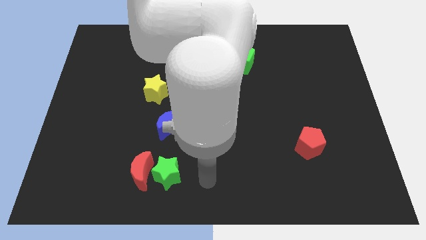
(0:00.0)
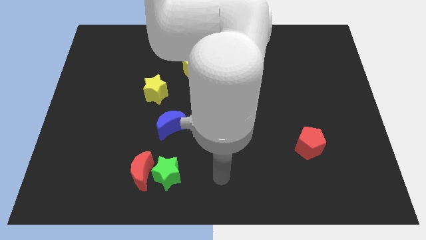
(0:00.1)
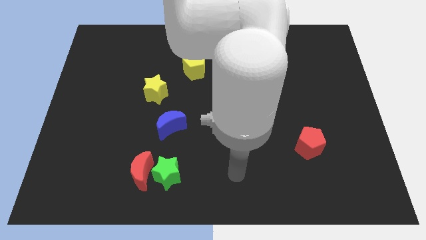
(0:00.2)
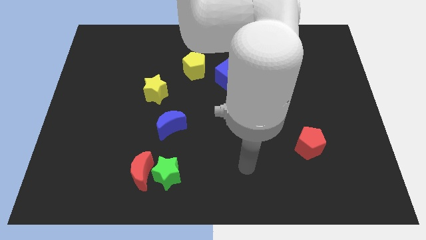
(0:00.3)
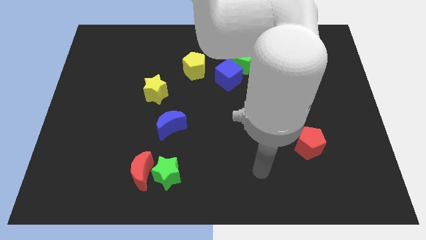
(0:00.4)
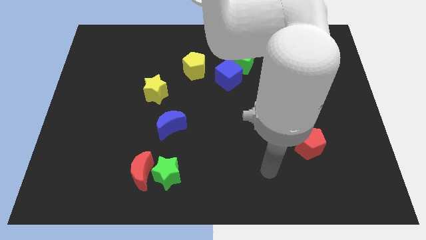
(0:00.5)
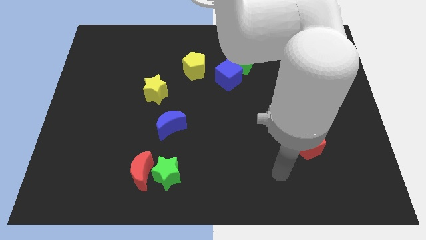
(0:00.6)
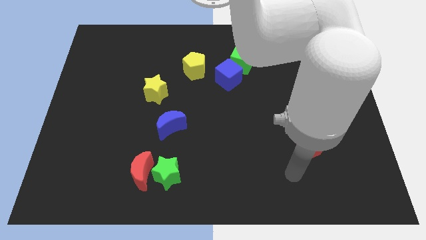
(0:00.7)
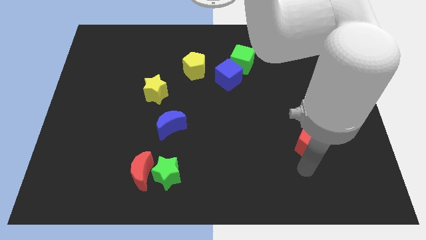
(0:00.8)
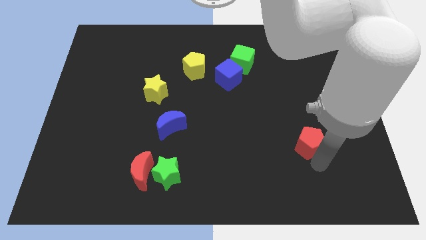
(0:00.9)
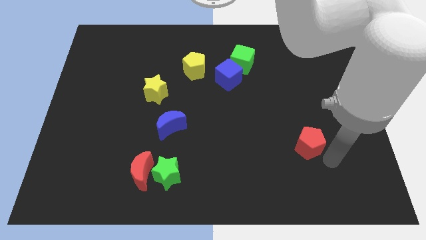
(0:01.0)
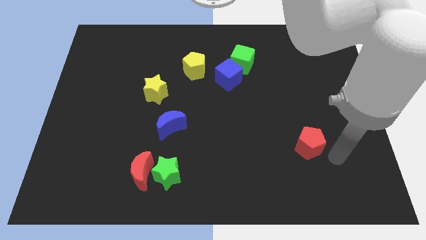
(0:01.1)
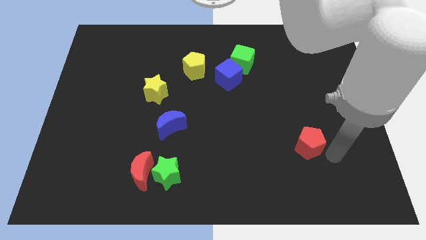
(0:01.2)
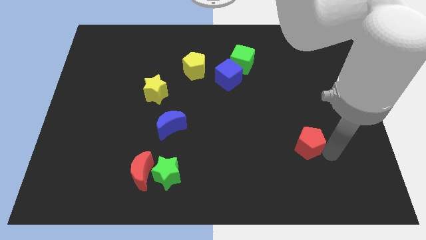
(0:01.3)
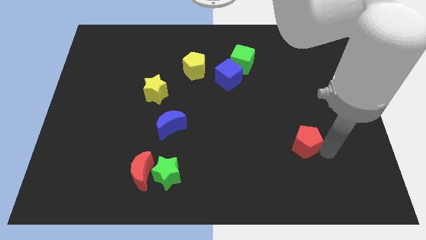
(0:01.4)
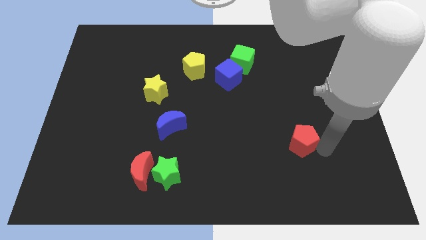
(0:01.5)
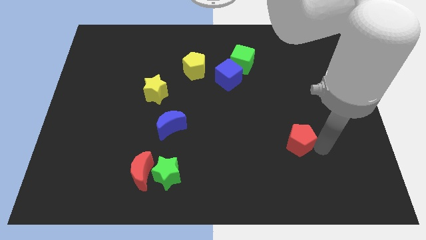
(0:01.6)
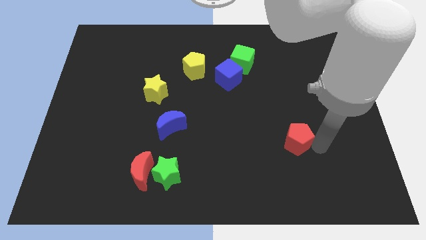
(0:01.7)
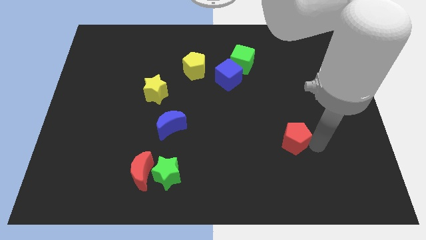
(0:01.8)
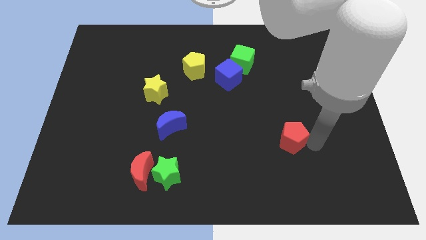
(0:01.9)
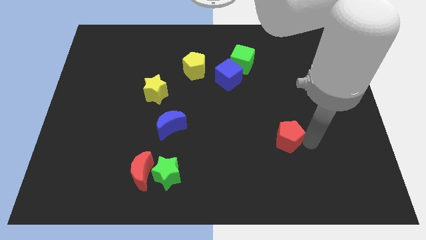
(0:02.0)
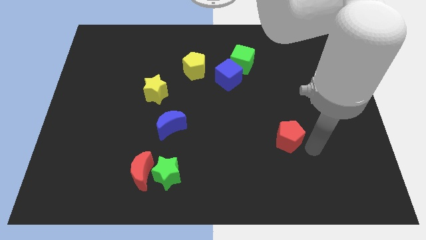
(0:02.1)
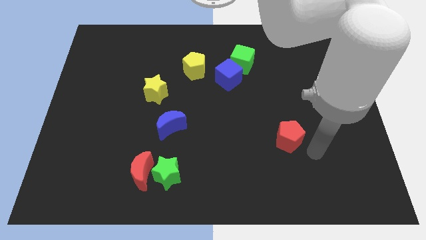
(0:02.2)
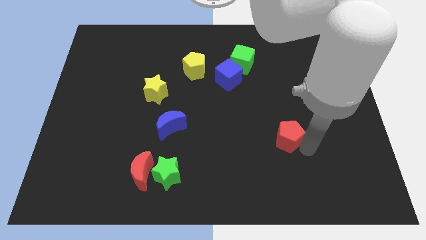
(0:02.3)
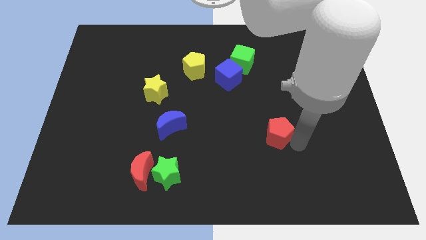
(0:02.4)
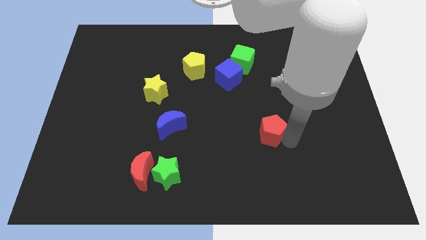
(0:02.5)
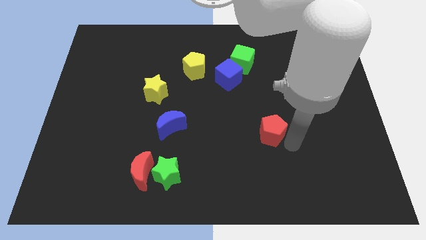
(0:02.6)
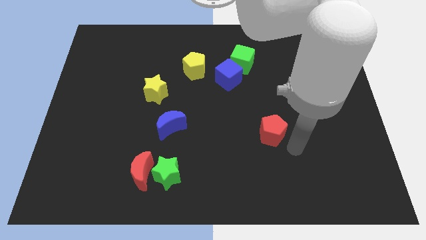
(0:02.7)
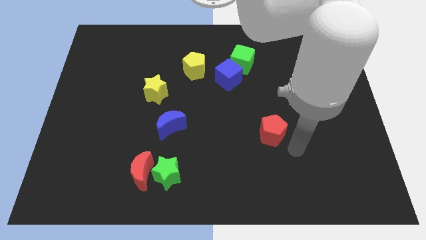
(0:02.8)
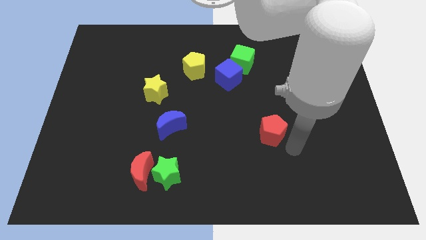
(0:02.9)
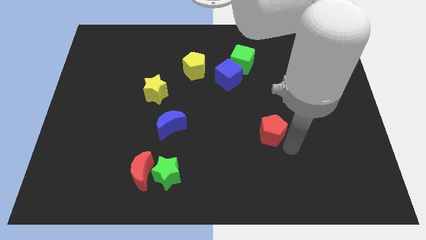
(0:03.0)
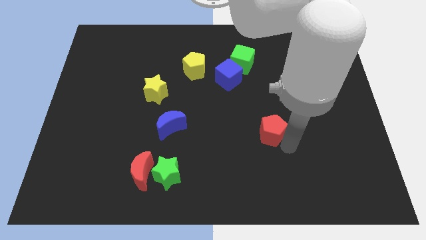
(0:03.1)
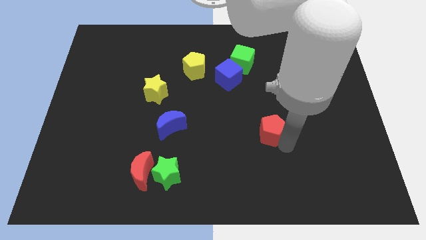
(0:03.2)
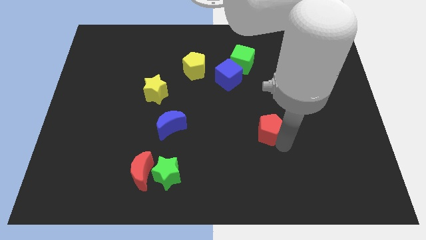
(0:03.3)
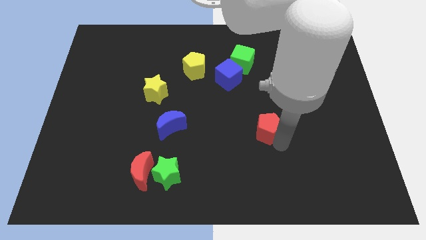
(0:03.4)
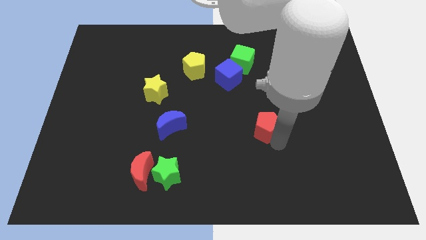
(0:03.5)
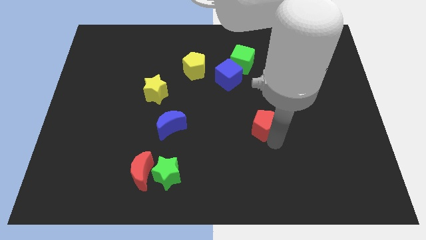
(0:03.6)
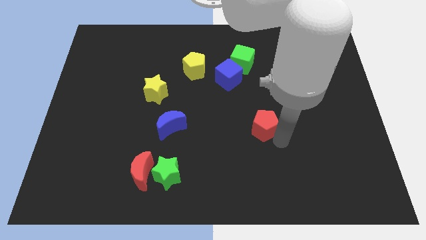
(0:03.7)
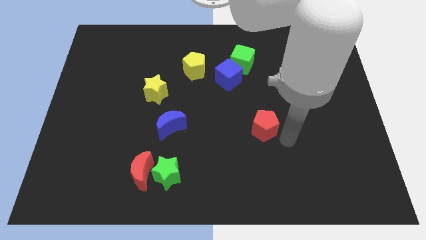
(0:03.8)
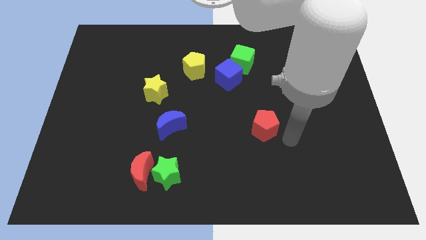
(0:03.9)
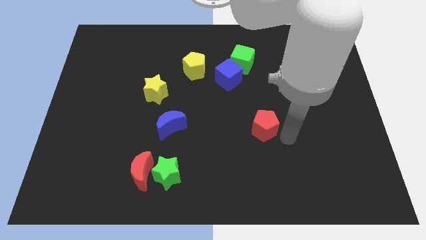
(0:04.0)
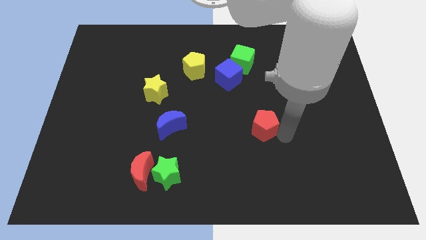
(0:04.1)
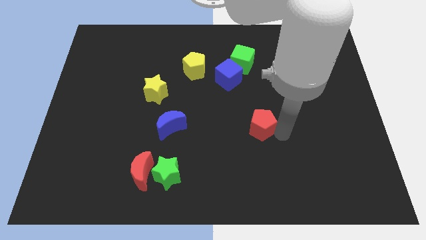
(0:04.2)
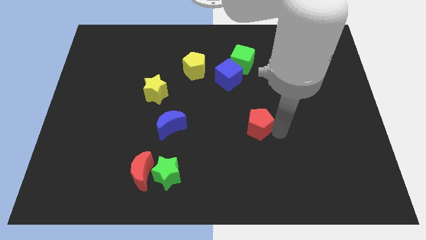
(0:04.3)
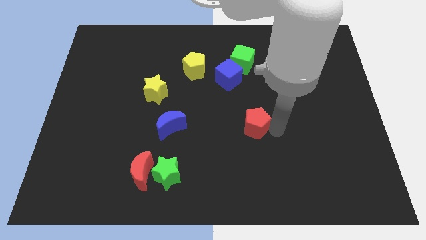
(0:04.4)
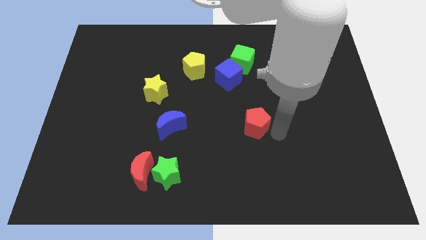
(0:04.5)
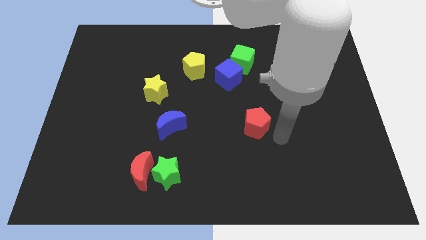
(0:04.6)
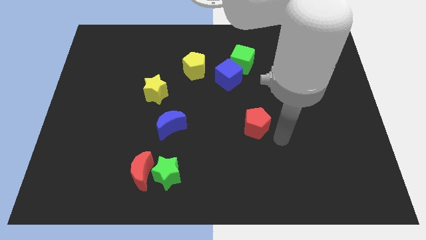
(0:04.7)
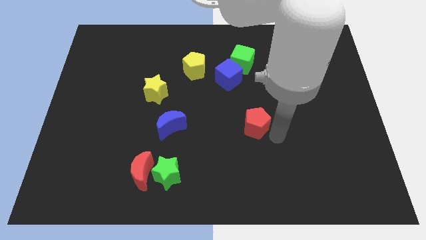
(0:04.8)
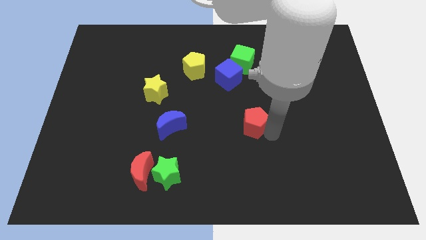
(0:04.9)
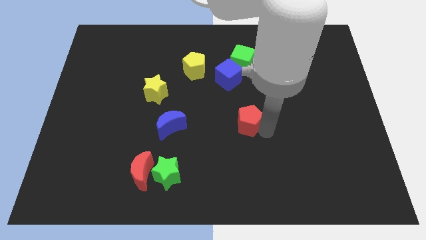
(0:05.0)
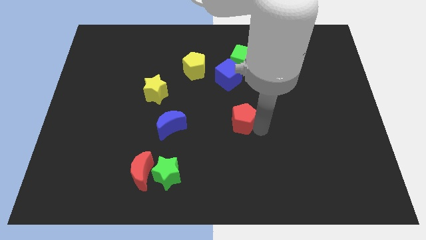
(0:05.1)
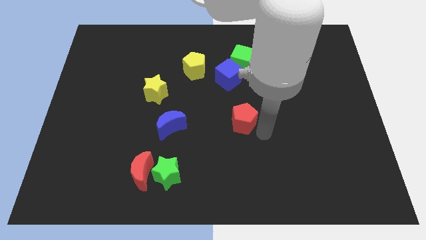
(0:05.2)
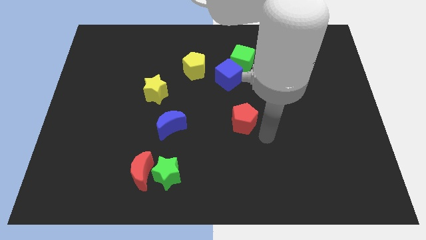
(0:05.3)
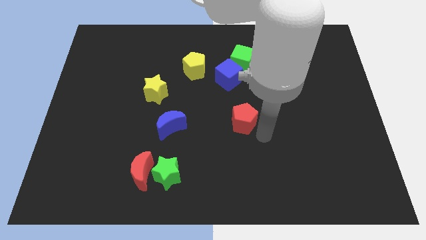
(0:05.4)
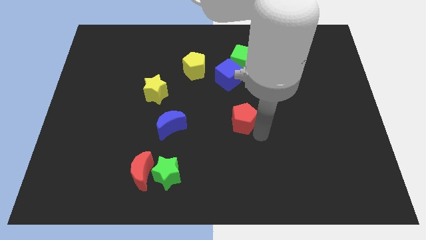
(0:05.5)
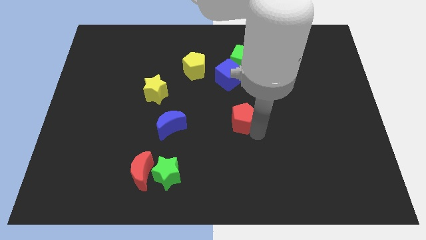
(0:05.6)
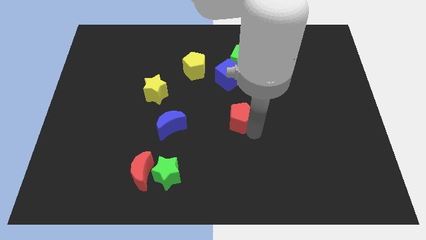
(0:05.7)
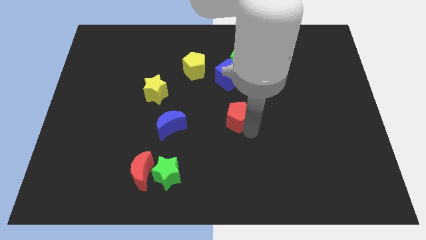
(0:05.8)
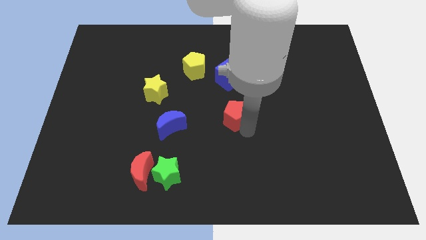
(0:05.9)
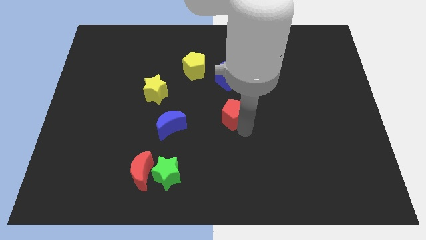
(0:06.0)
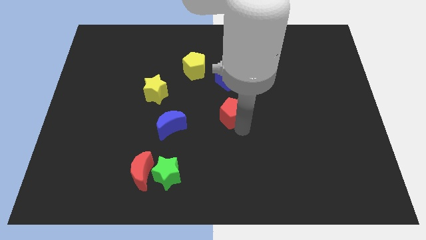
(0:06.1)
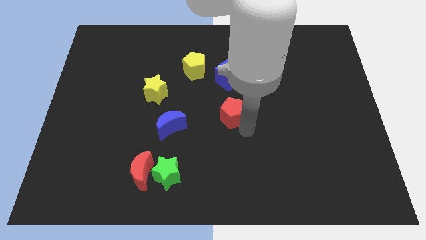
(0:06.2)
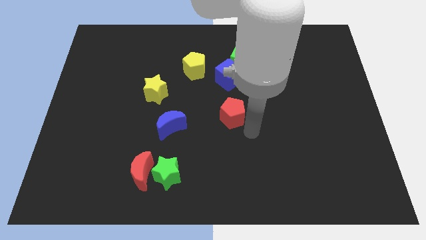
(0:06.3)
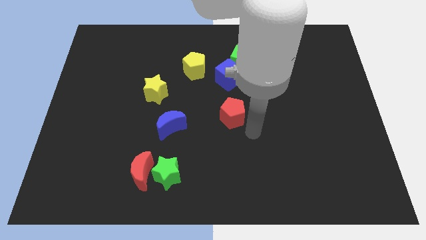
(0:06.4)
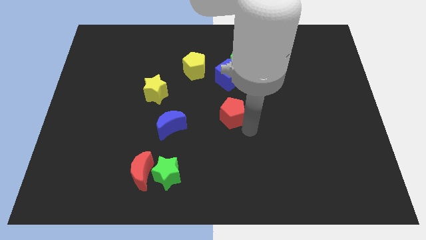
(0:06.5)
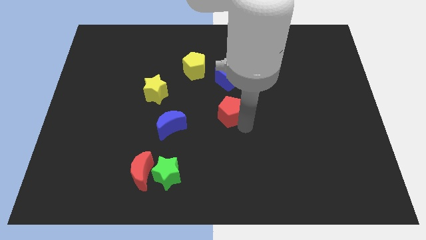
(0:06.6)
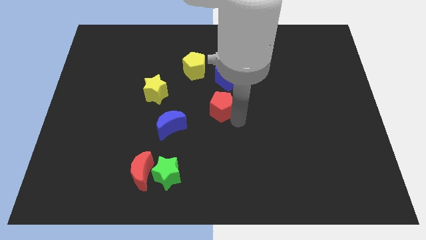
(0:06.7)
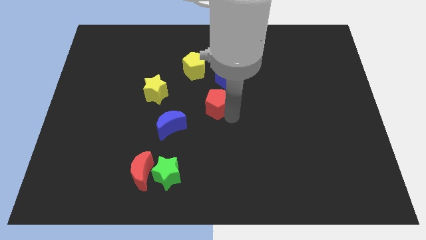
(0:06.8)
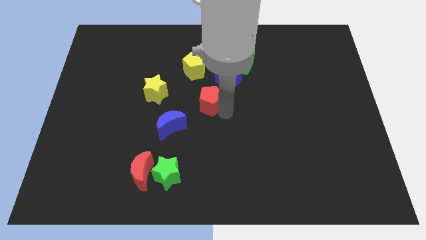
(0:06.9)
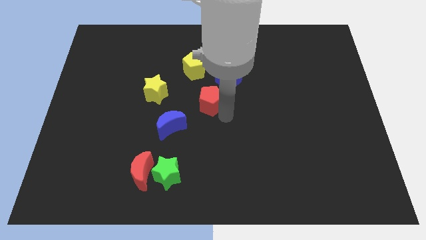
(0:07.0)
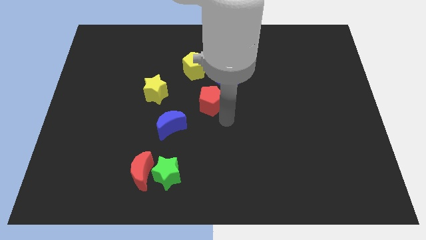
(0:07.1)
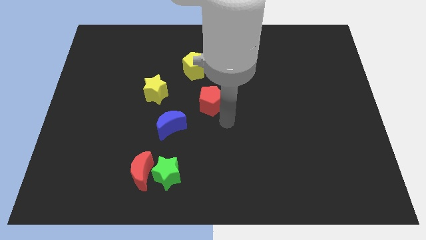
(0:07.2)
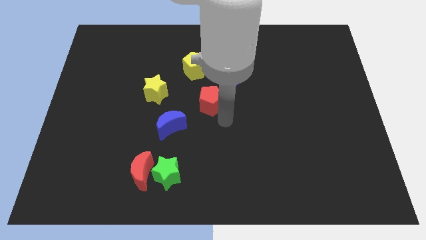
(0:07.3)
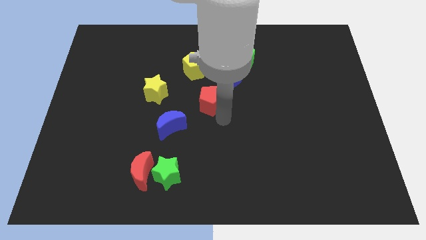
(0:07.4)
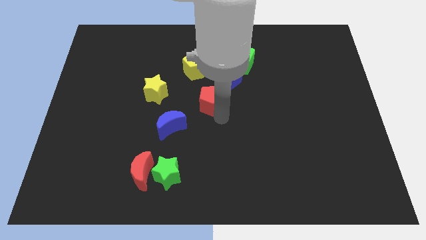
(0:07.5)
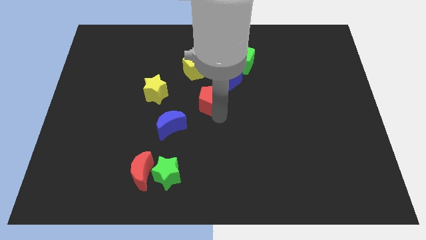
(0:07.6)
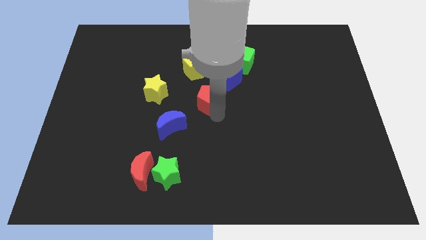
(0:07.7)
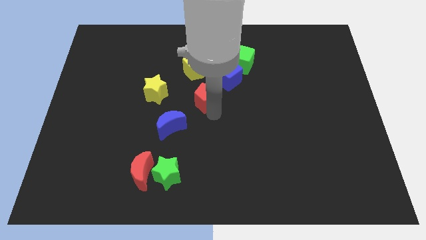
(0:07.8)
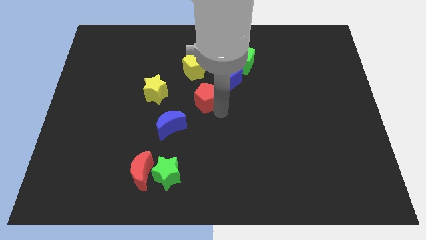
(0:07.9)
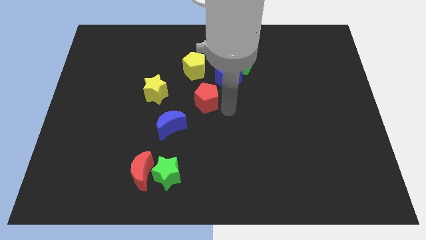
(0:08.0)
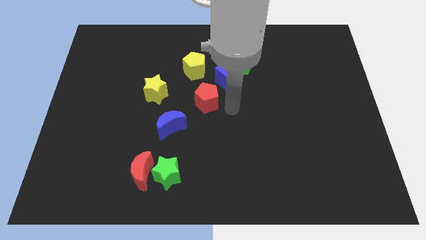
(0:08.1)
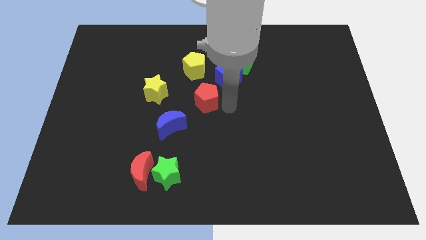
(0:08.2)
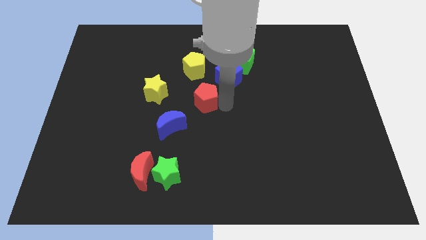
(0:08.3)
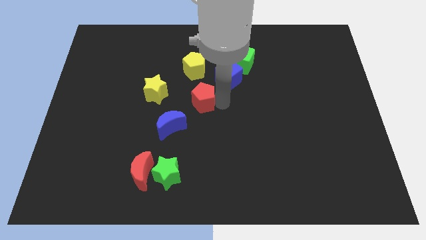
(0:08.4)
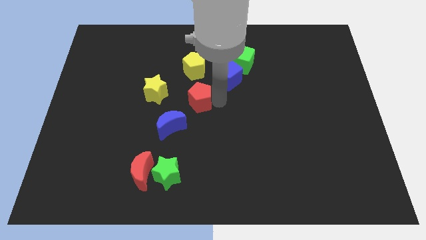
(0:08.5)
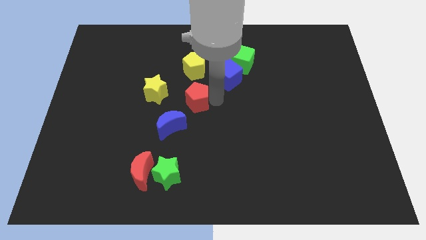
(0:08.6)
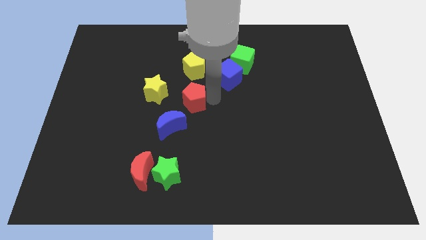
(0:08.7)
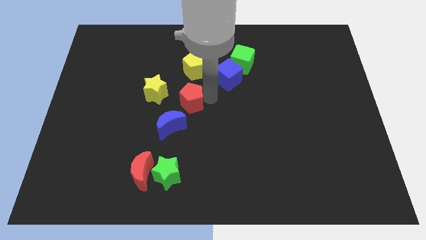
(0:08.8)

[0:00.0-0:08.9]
move the red pentagon above the blue moon
